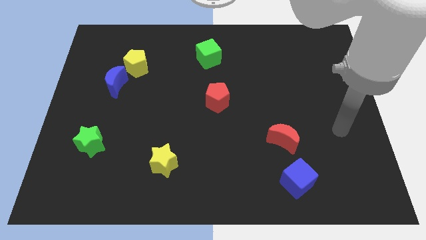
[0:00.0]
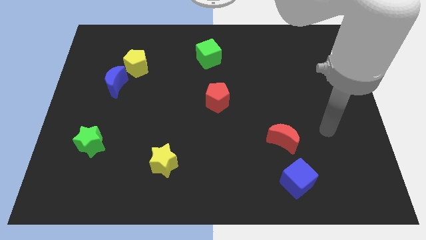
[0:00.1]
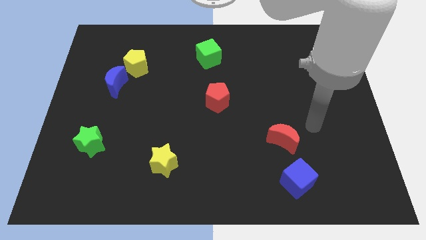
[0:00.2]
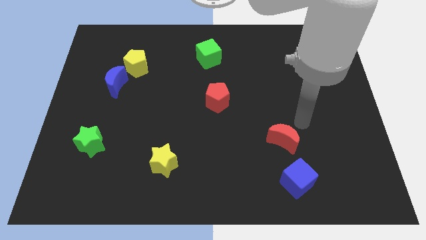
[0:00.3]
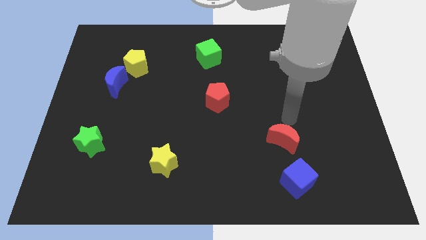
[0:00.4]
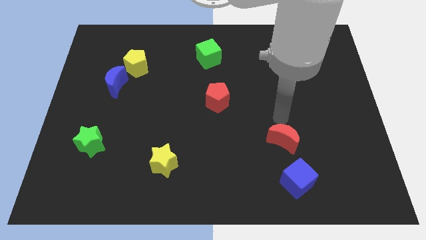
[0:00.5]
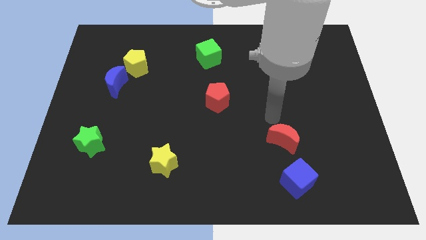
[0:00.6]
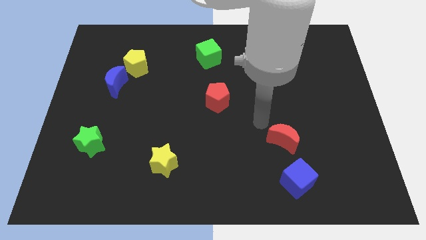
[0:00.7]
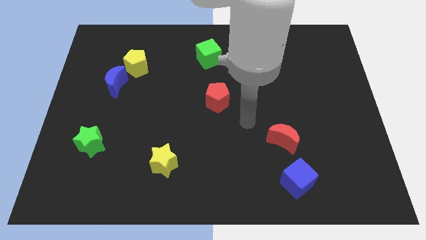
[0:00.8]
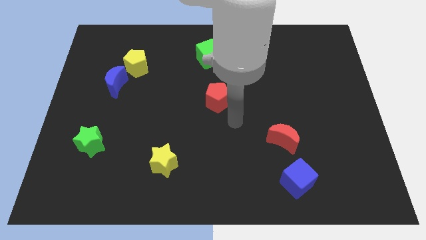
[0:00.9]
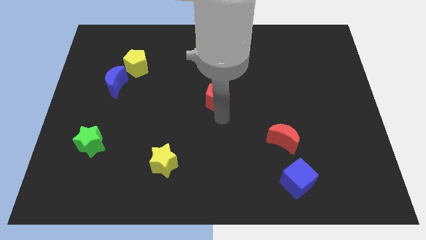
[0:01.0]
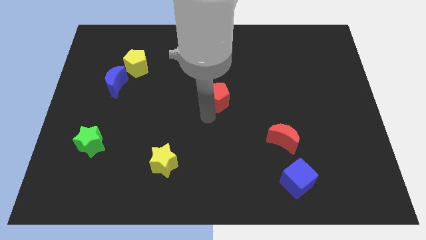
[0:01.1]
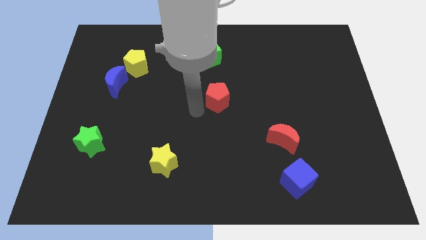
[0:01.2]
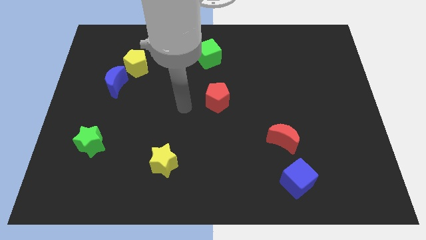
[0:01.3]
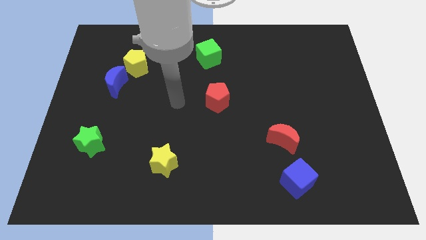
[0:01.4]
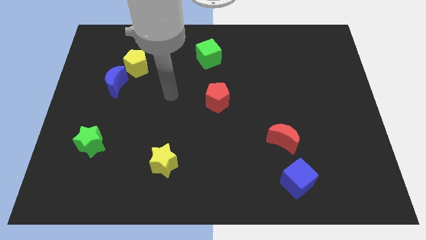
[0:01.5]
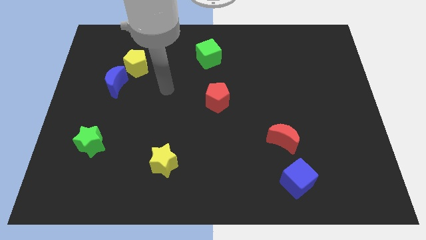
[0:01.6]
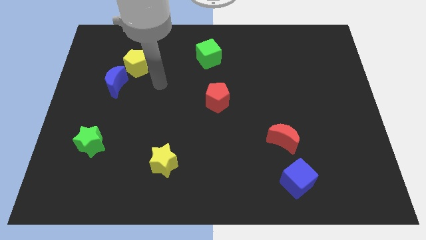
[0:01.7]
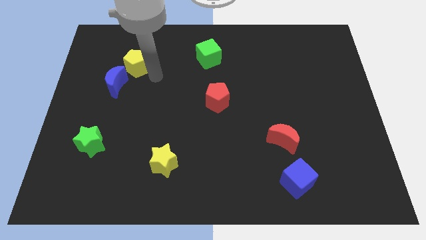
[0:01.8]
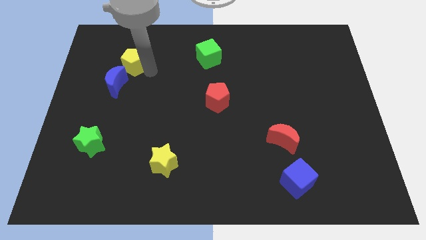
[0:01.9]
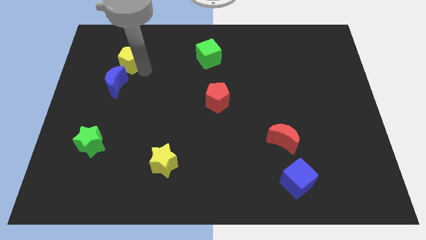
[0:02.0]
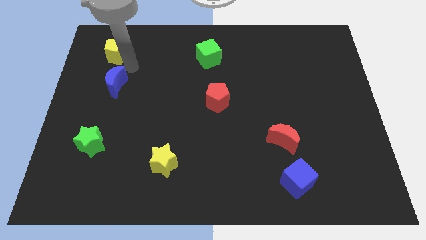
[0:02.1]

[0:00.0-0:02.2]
move the blue moon away from the yellow pentagon

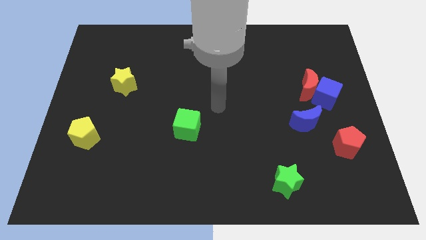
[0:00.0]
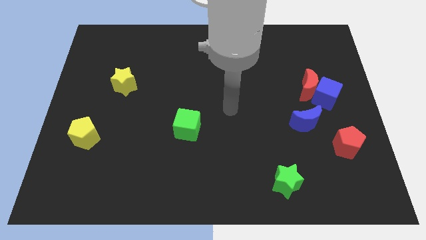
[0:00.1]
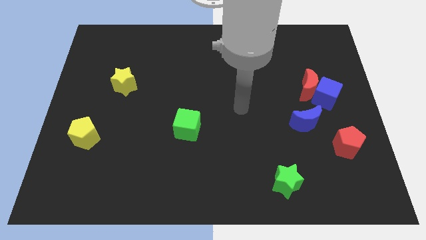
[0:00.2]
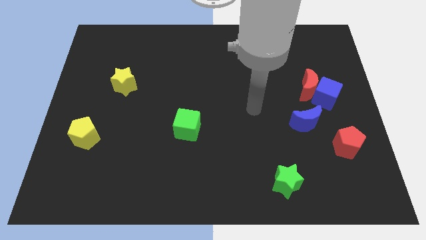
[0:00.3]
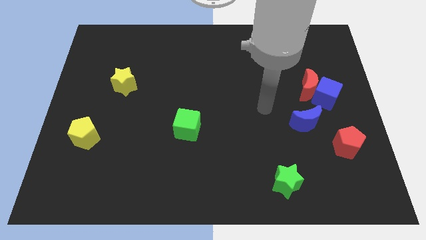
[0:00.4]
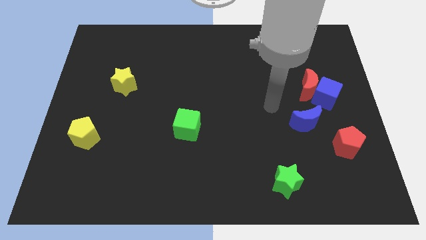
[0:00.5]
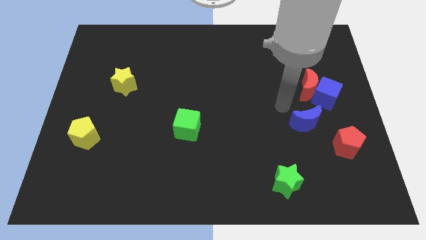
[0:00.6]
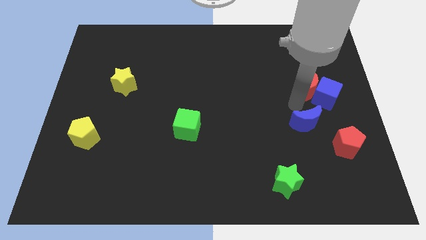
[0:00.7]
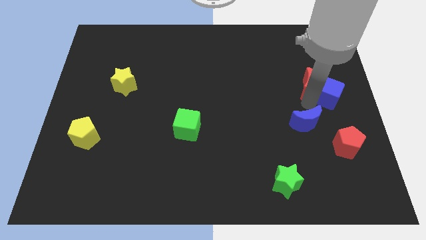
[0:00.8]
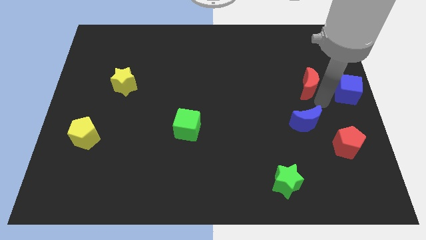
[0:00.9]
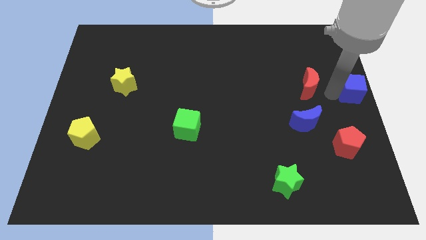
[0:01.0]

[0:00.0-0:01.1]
move the red moon away from the blue cube

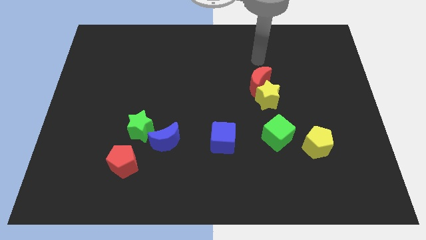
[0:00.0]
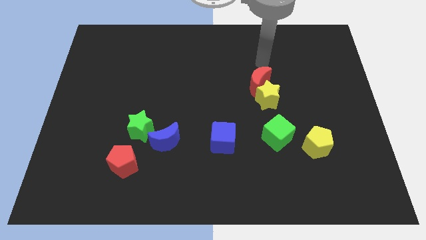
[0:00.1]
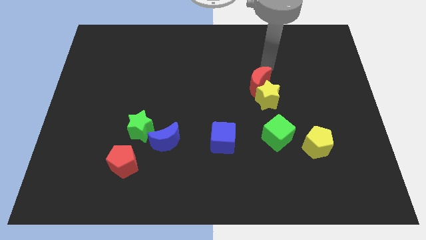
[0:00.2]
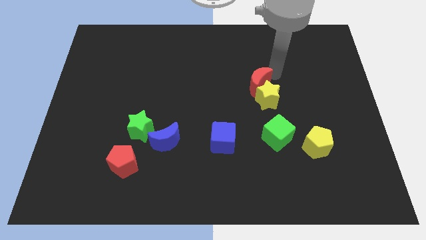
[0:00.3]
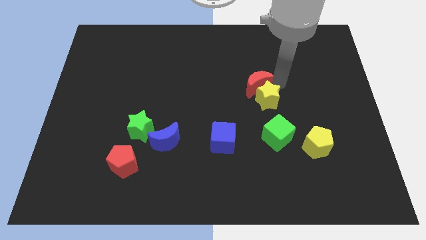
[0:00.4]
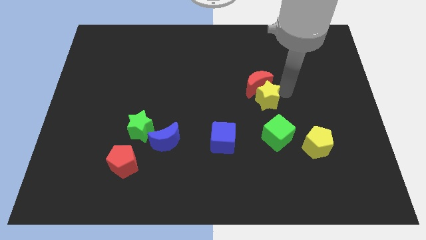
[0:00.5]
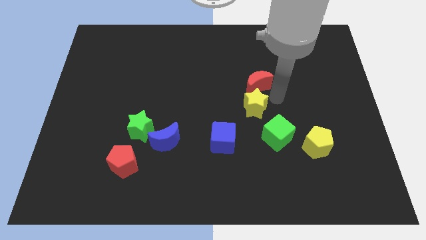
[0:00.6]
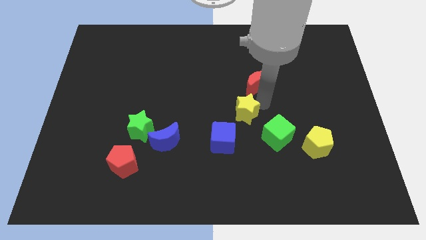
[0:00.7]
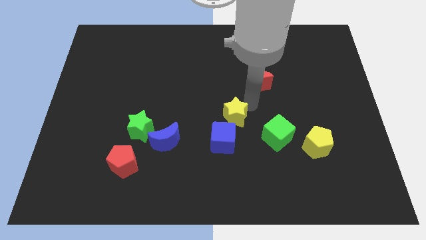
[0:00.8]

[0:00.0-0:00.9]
pull the red moon apart from the yellow star

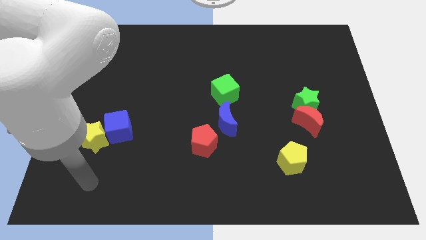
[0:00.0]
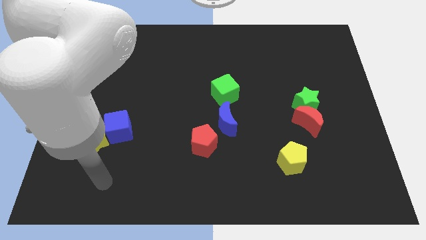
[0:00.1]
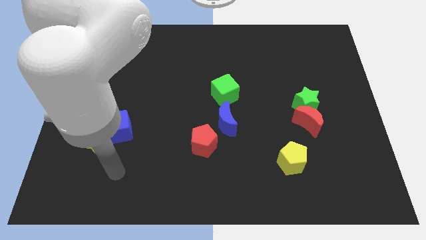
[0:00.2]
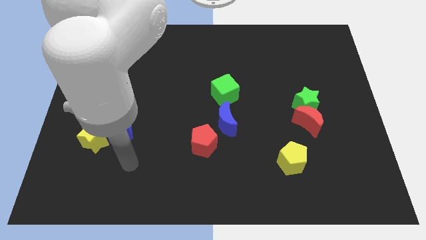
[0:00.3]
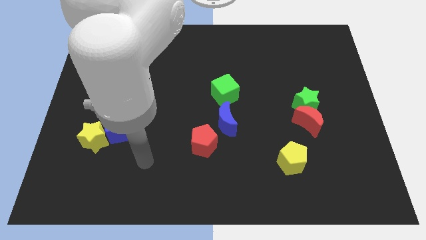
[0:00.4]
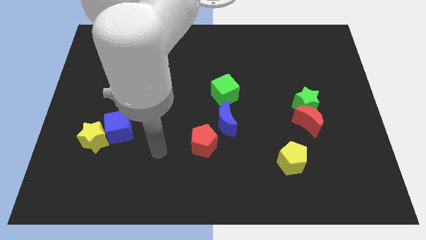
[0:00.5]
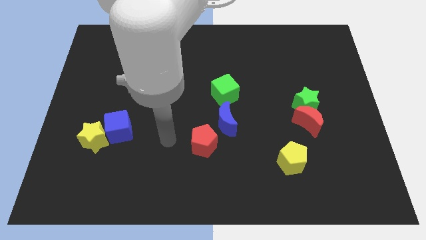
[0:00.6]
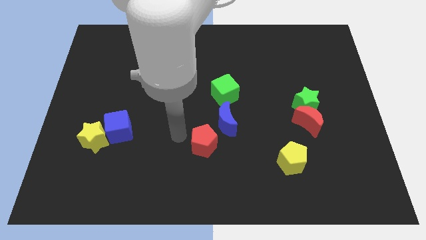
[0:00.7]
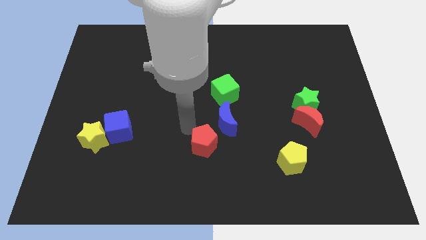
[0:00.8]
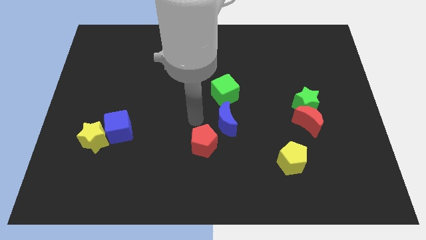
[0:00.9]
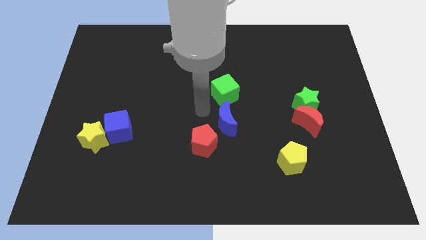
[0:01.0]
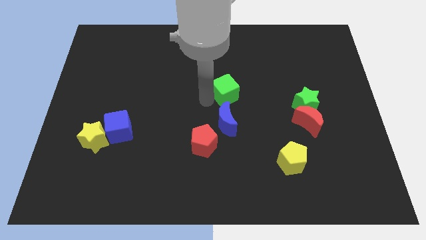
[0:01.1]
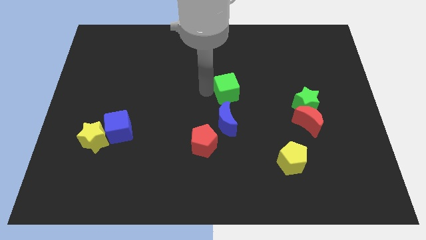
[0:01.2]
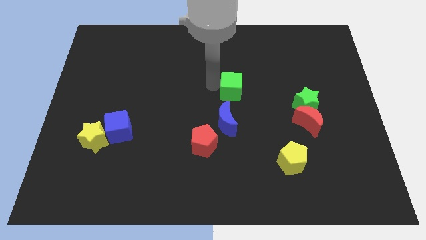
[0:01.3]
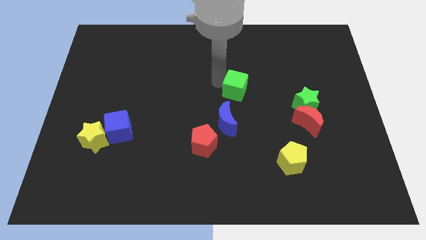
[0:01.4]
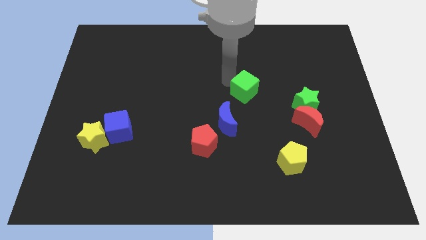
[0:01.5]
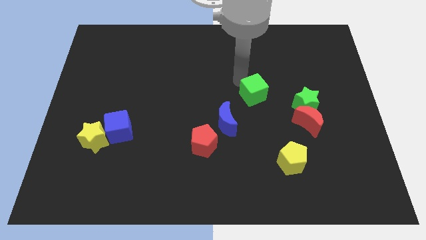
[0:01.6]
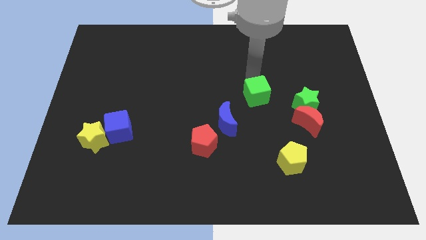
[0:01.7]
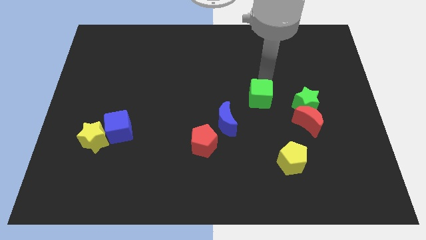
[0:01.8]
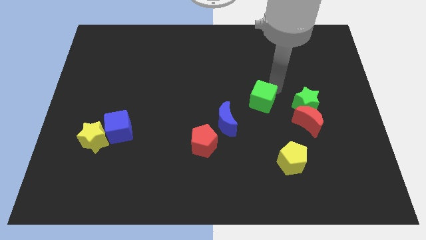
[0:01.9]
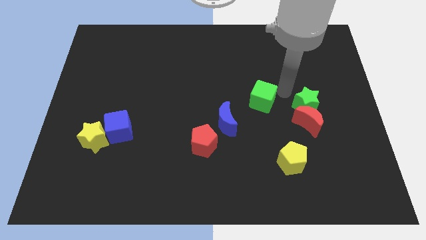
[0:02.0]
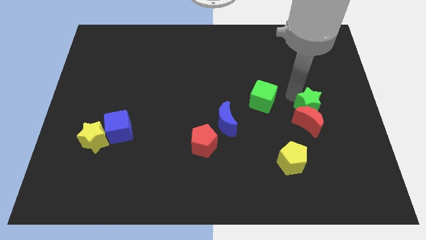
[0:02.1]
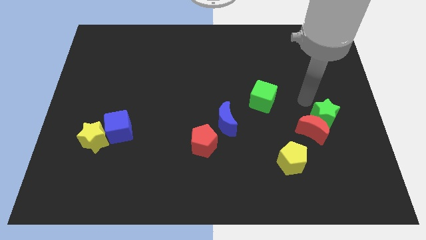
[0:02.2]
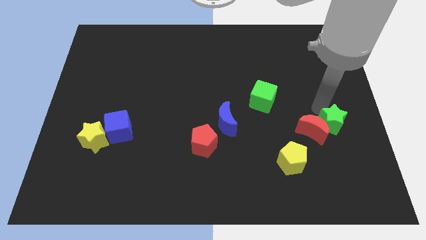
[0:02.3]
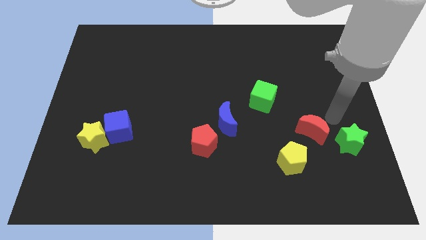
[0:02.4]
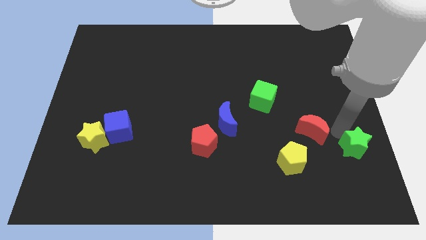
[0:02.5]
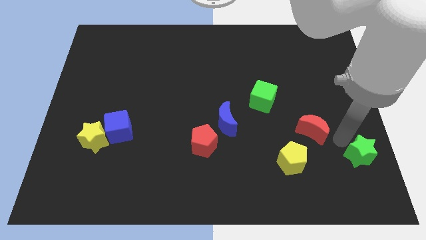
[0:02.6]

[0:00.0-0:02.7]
pull the red moon apart from the green star

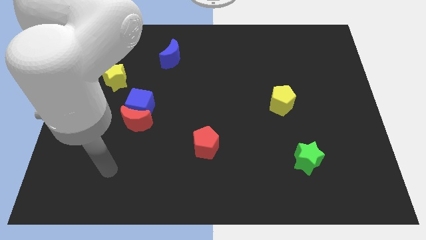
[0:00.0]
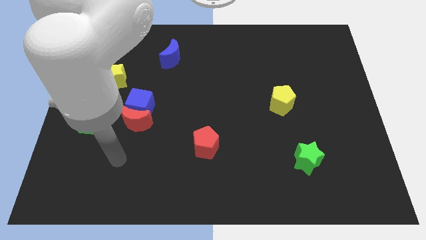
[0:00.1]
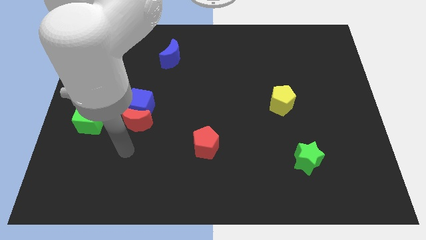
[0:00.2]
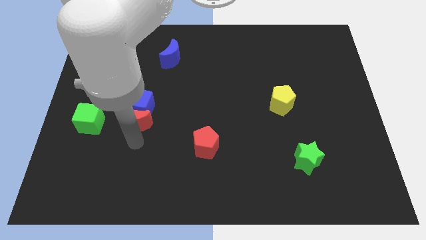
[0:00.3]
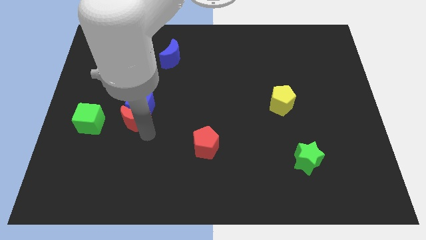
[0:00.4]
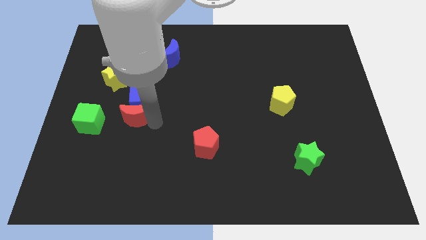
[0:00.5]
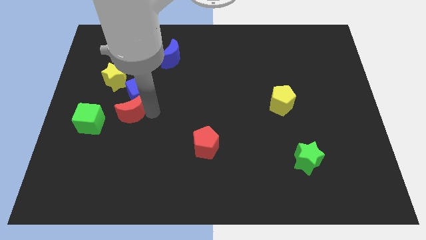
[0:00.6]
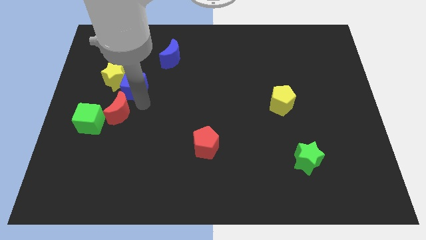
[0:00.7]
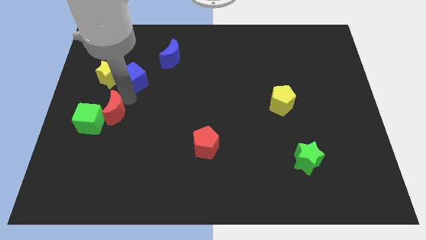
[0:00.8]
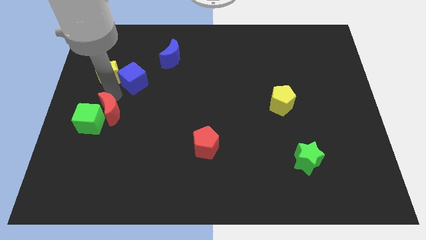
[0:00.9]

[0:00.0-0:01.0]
pull the red moon apart from the blue cube

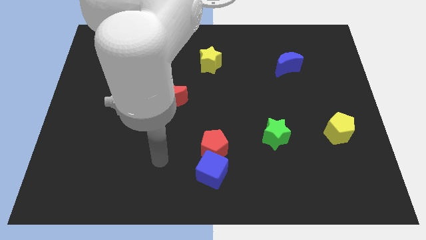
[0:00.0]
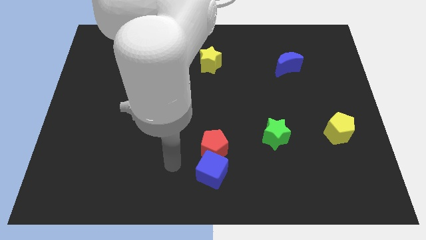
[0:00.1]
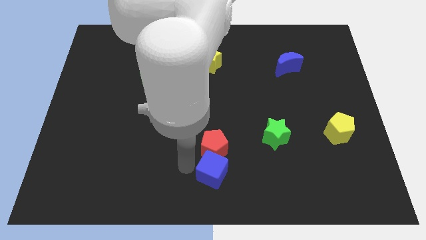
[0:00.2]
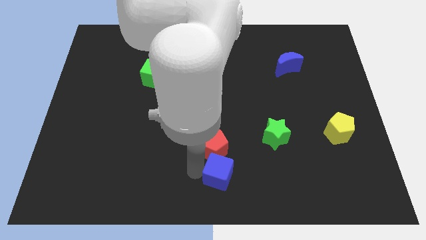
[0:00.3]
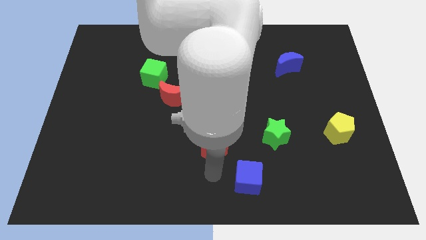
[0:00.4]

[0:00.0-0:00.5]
separate the red pentagon from the blue cube

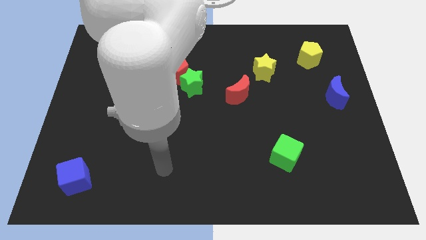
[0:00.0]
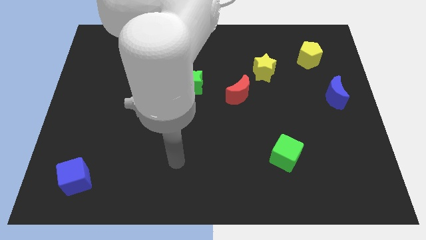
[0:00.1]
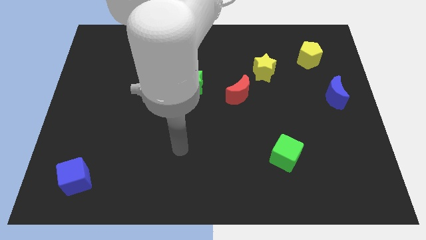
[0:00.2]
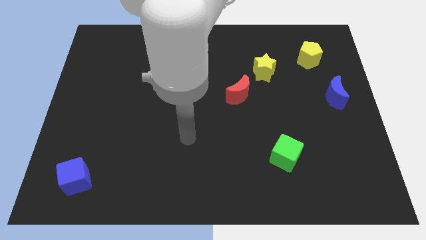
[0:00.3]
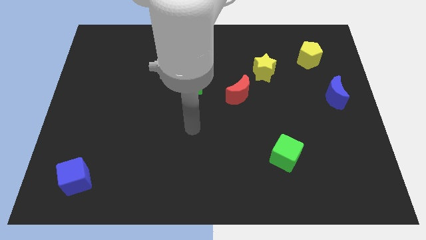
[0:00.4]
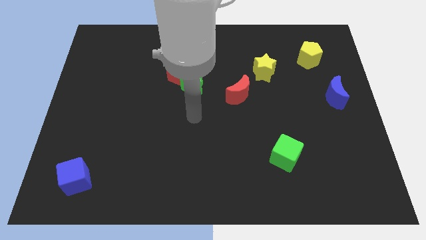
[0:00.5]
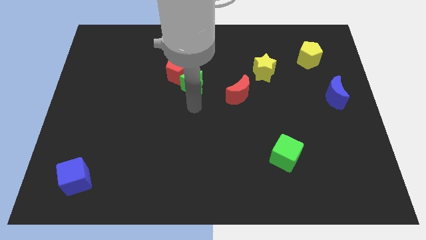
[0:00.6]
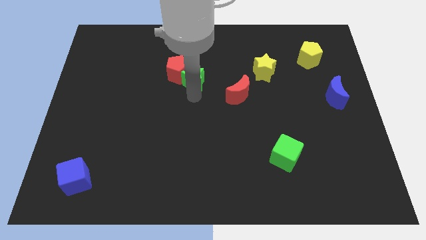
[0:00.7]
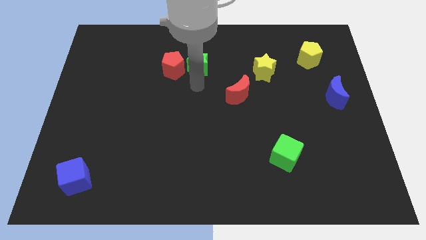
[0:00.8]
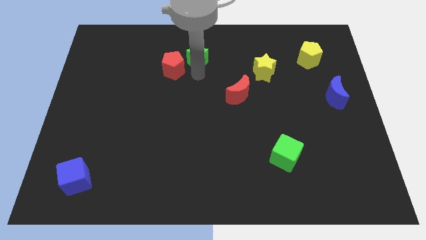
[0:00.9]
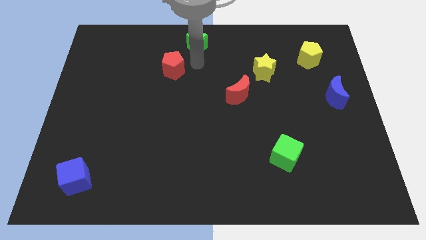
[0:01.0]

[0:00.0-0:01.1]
move the red pentagon away from the green star
